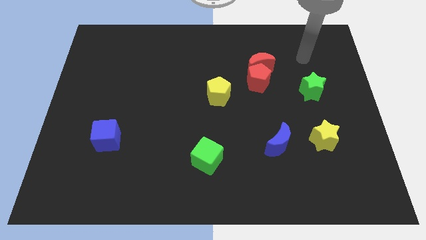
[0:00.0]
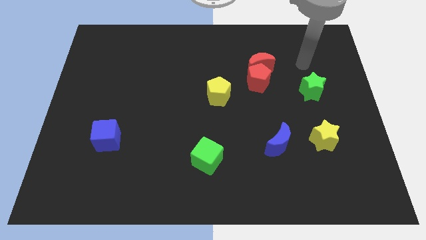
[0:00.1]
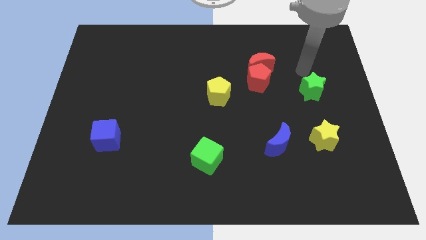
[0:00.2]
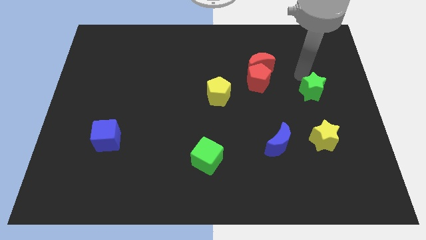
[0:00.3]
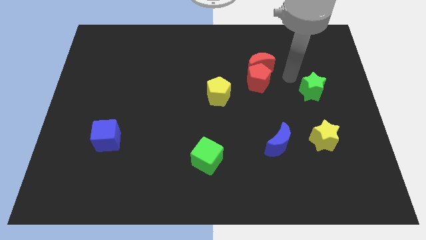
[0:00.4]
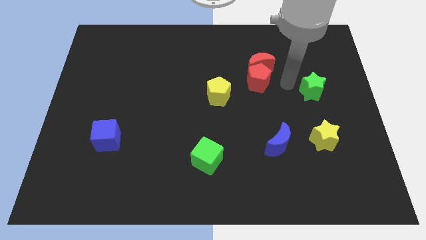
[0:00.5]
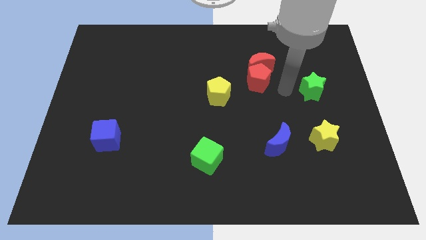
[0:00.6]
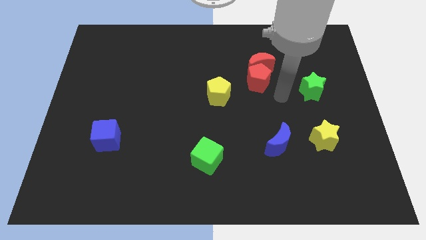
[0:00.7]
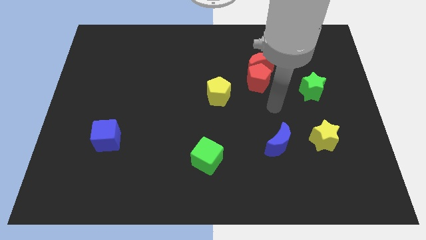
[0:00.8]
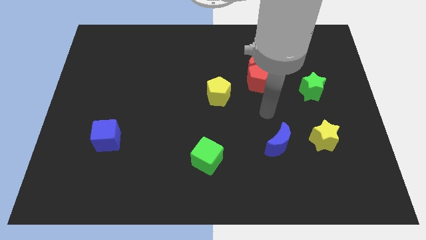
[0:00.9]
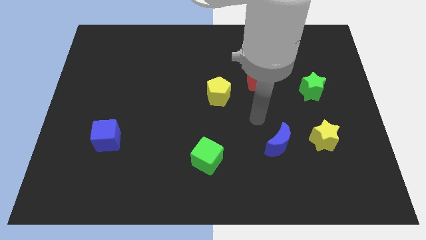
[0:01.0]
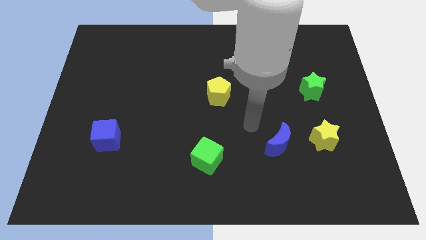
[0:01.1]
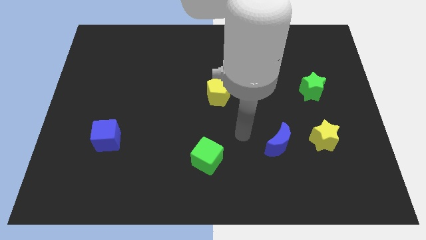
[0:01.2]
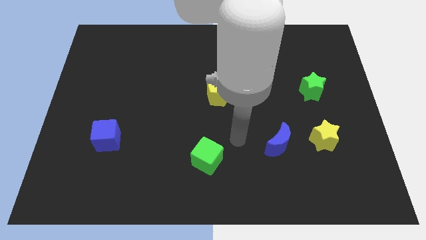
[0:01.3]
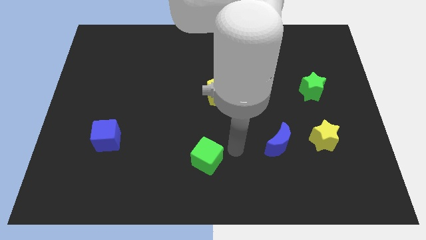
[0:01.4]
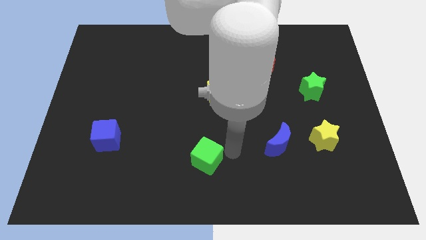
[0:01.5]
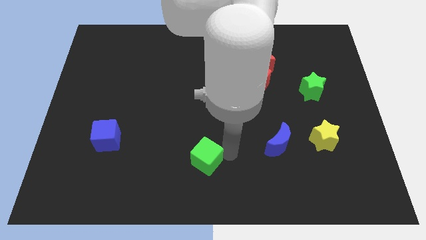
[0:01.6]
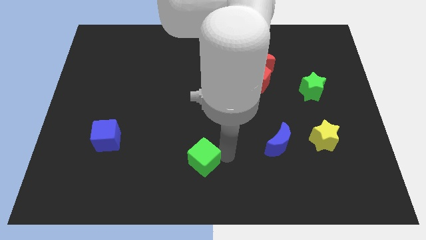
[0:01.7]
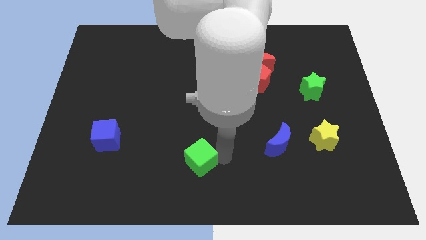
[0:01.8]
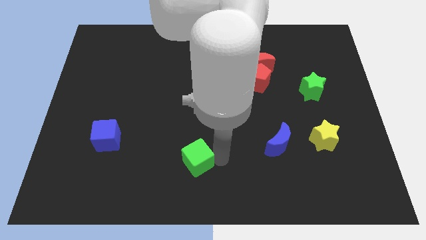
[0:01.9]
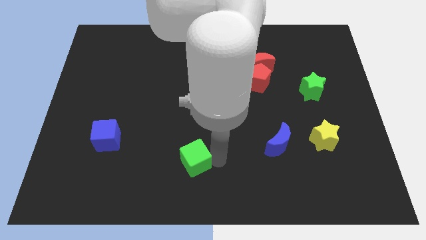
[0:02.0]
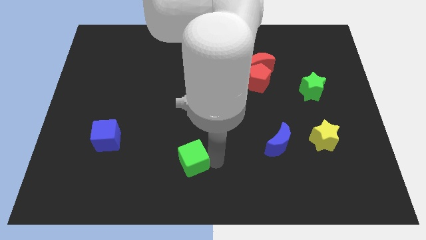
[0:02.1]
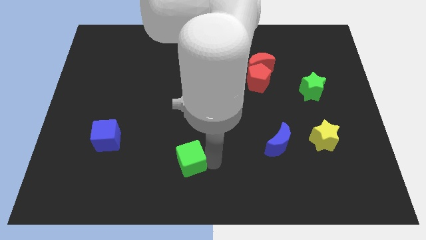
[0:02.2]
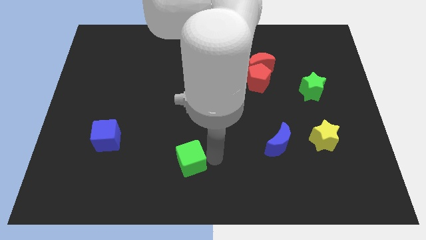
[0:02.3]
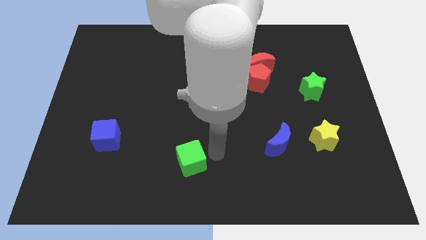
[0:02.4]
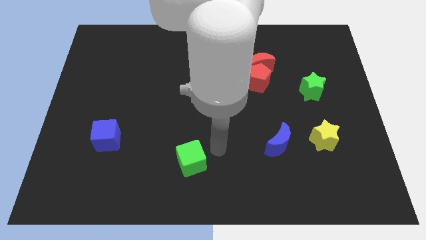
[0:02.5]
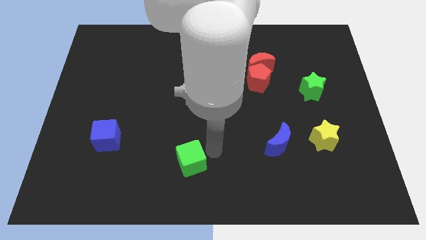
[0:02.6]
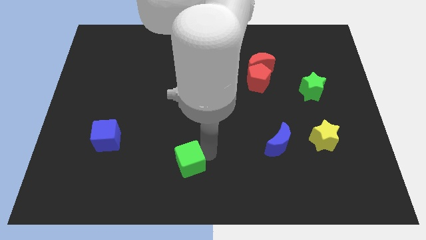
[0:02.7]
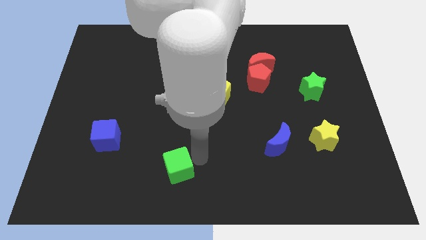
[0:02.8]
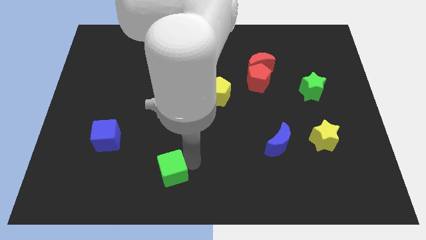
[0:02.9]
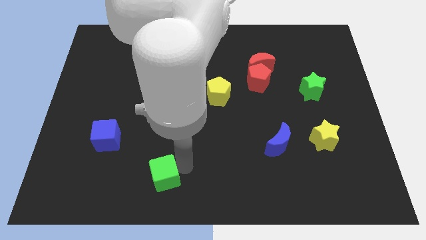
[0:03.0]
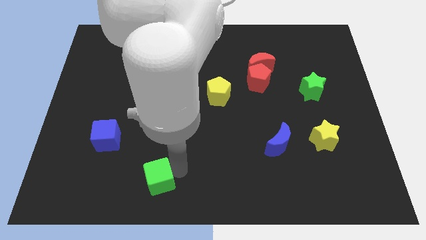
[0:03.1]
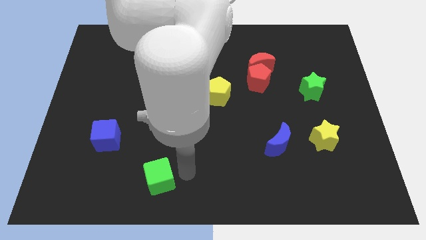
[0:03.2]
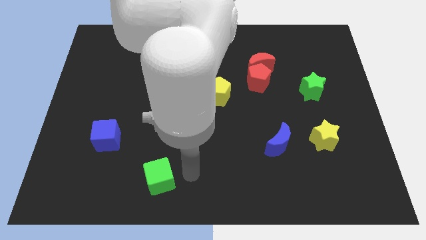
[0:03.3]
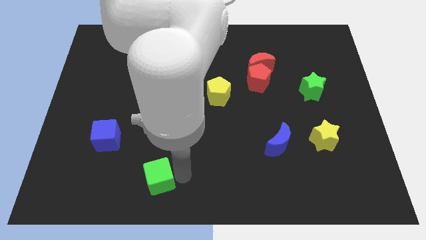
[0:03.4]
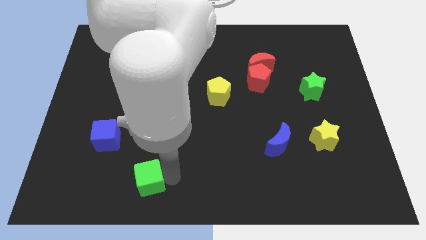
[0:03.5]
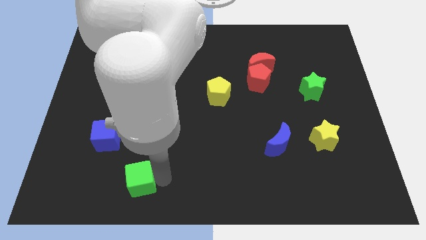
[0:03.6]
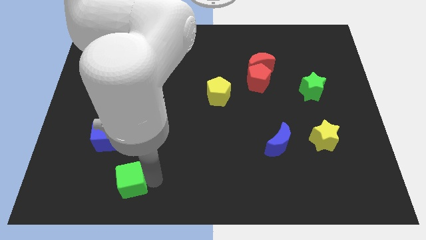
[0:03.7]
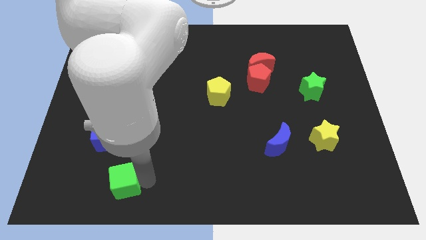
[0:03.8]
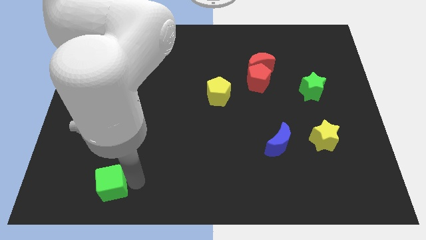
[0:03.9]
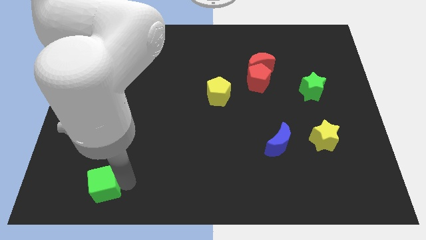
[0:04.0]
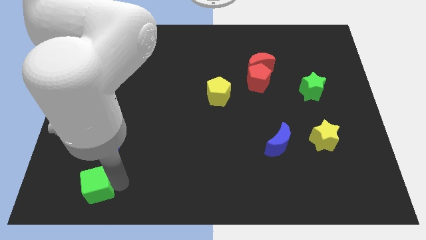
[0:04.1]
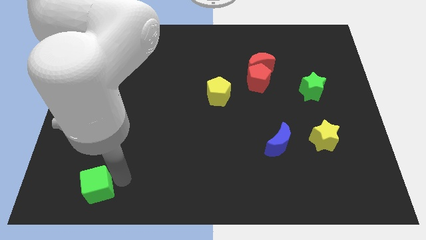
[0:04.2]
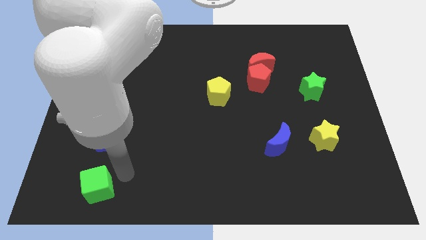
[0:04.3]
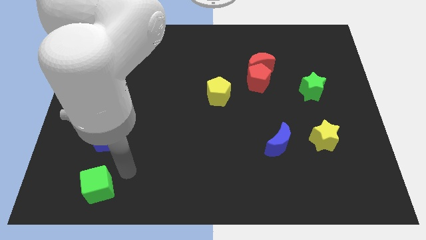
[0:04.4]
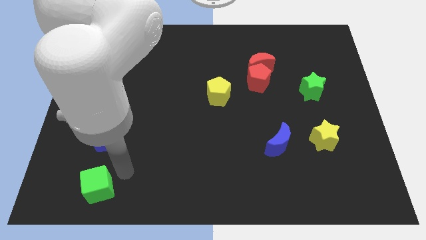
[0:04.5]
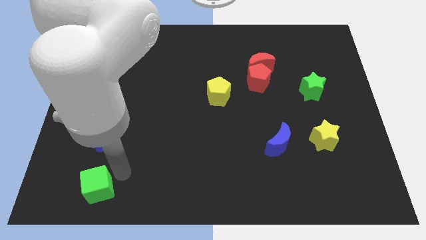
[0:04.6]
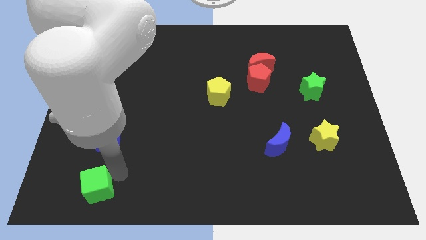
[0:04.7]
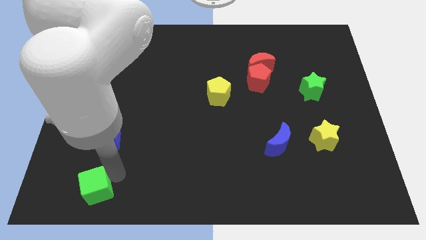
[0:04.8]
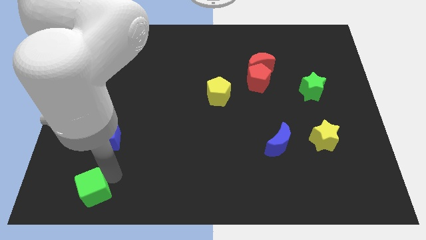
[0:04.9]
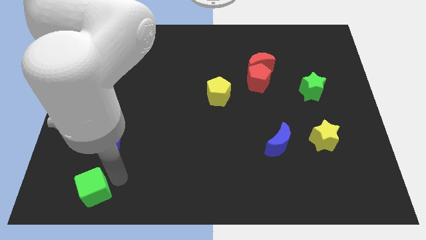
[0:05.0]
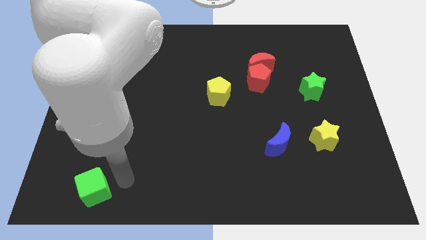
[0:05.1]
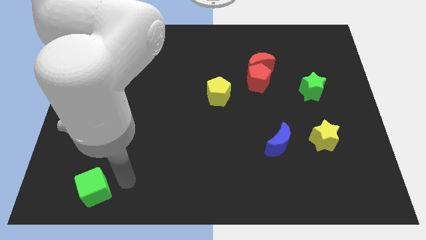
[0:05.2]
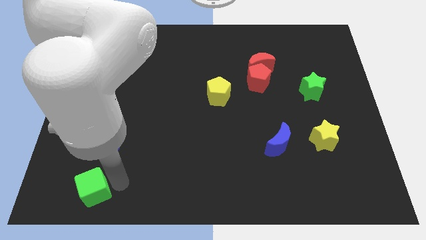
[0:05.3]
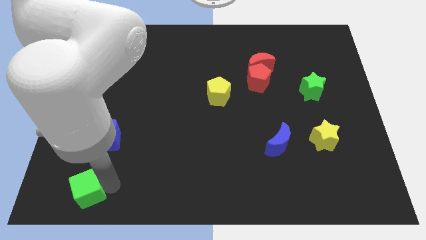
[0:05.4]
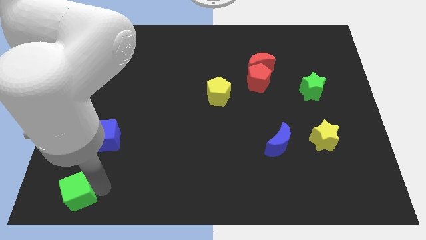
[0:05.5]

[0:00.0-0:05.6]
slide the green cube to the lower left corner

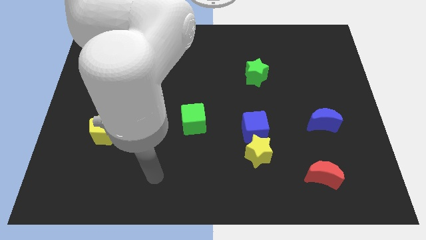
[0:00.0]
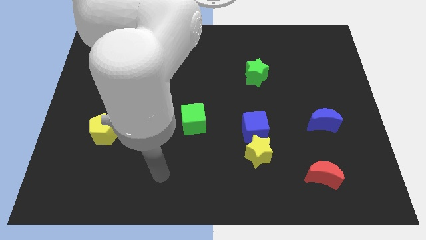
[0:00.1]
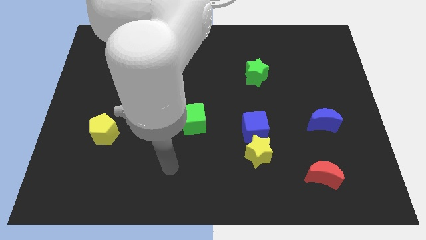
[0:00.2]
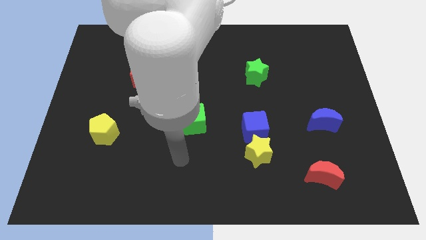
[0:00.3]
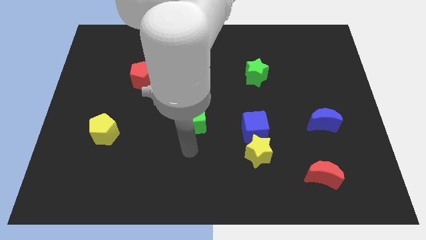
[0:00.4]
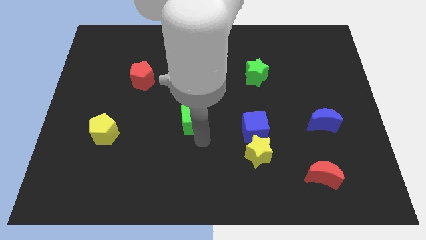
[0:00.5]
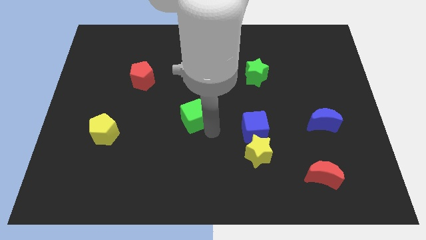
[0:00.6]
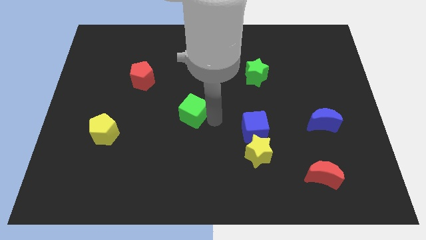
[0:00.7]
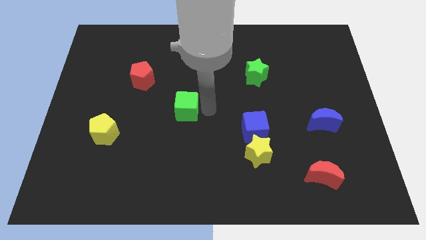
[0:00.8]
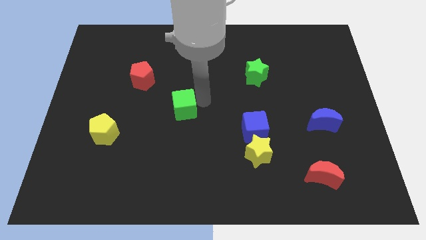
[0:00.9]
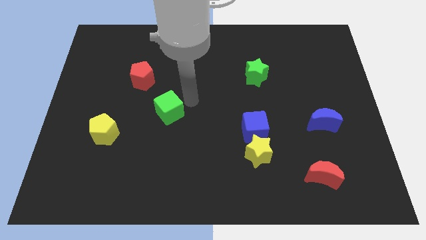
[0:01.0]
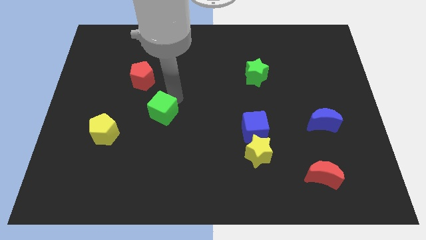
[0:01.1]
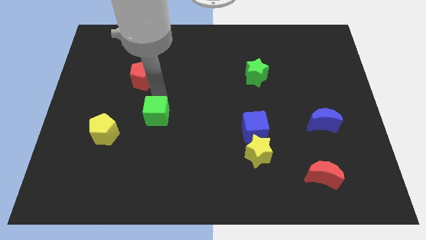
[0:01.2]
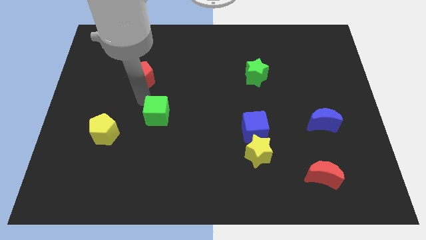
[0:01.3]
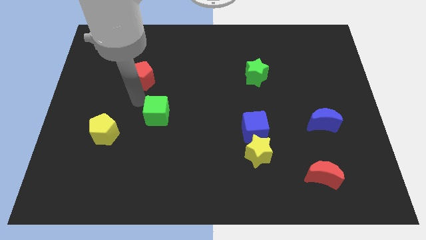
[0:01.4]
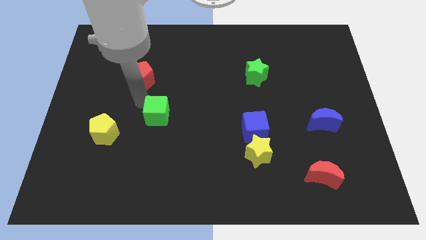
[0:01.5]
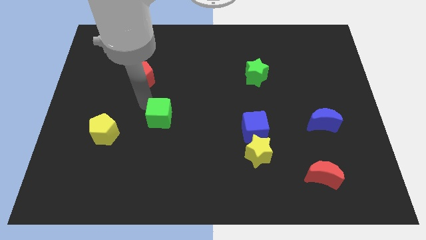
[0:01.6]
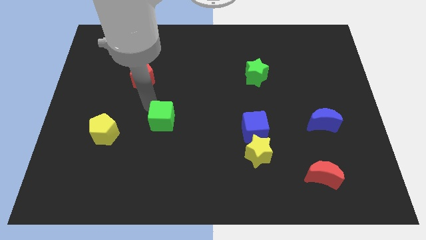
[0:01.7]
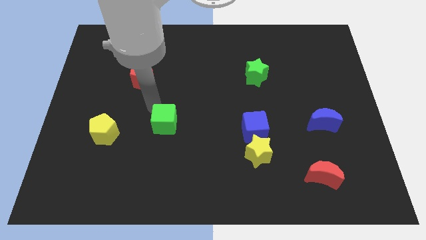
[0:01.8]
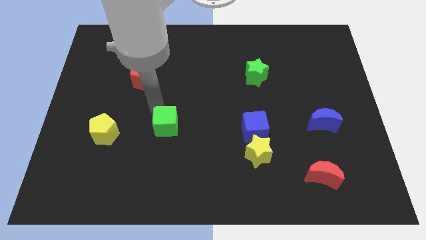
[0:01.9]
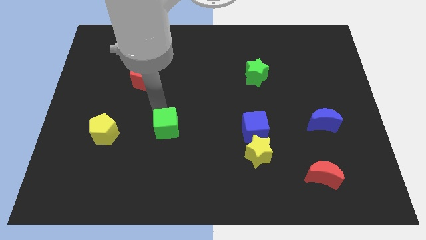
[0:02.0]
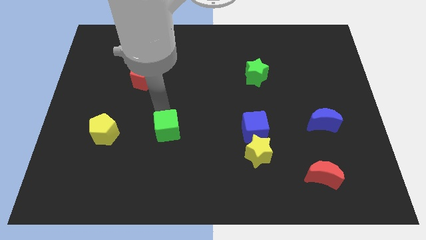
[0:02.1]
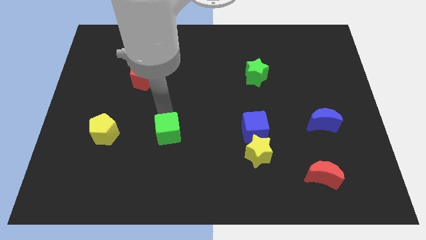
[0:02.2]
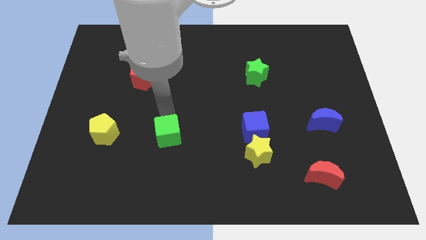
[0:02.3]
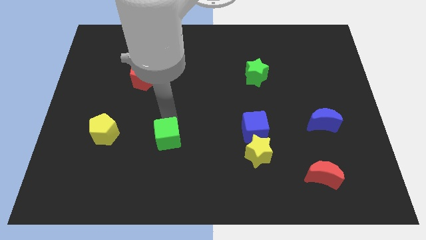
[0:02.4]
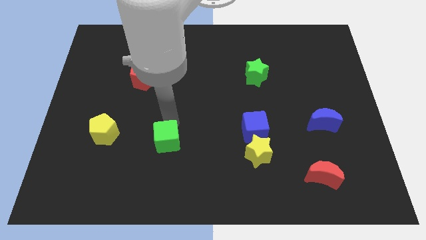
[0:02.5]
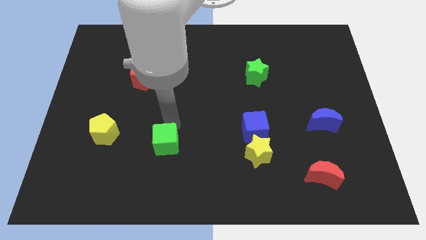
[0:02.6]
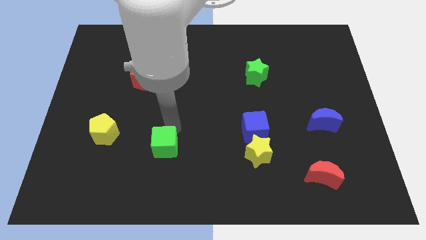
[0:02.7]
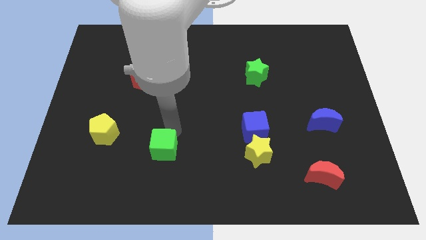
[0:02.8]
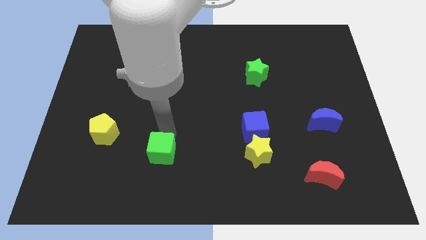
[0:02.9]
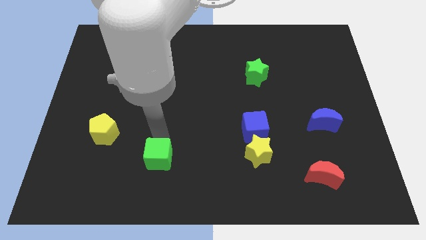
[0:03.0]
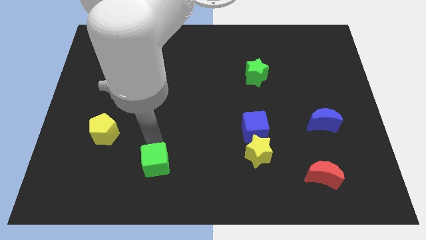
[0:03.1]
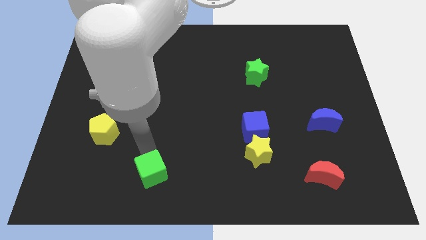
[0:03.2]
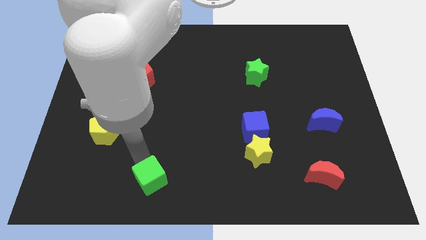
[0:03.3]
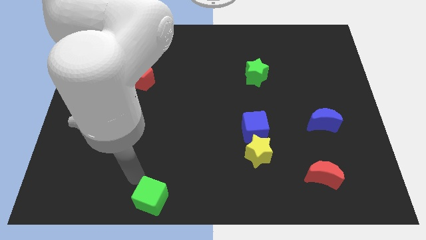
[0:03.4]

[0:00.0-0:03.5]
slide the green cube to the bottom side
